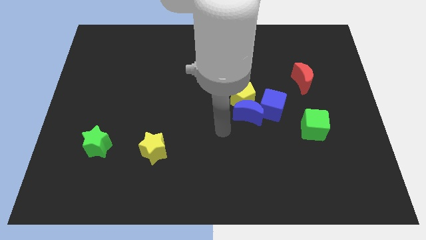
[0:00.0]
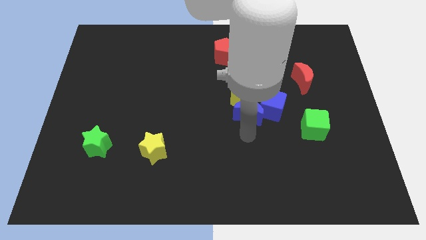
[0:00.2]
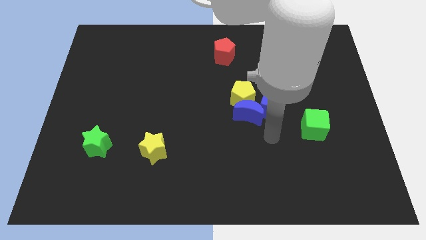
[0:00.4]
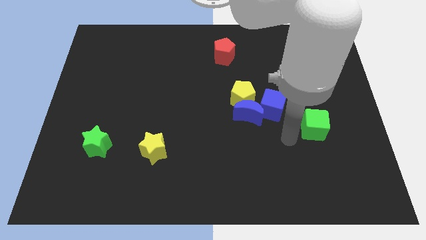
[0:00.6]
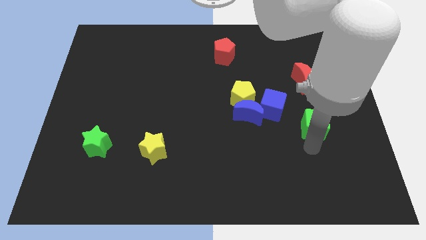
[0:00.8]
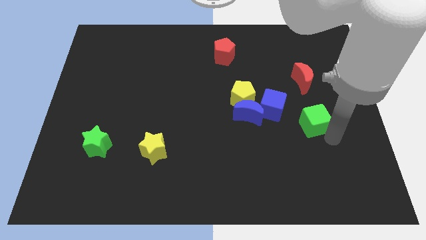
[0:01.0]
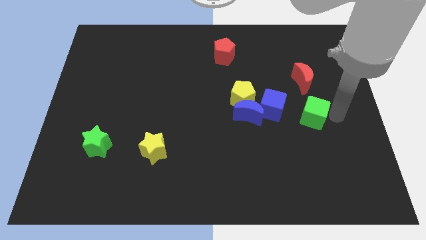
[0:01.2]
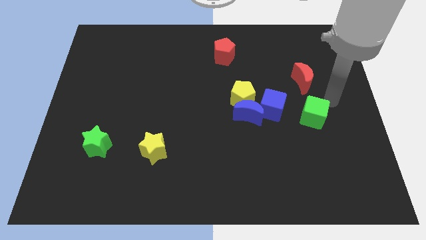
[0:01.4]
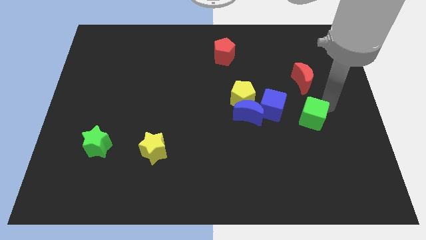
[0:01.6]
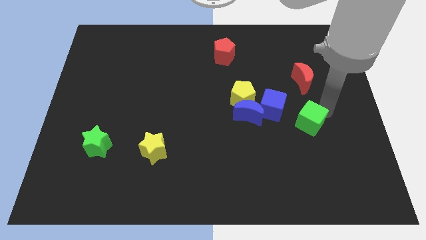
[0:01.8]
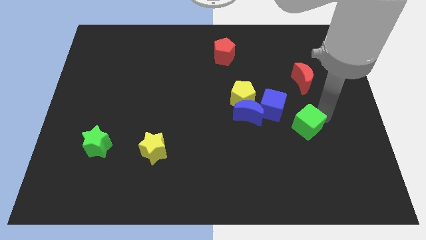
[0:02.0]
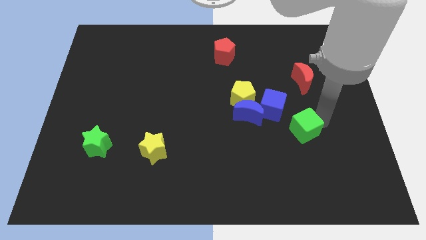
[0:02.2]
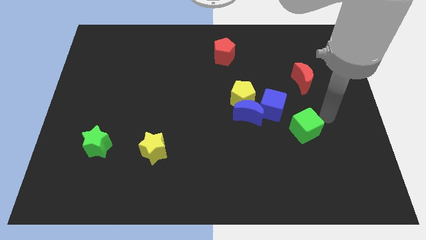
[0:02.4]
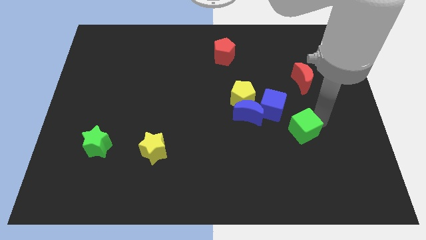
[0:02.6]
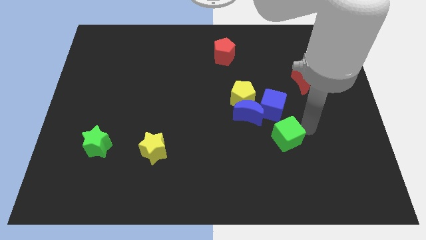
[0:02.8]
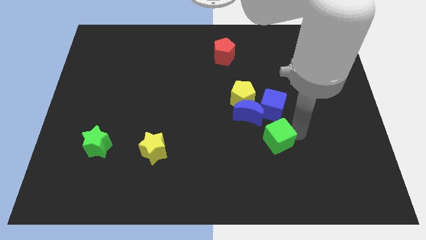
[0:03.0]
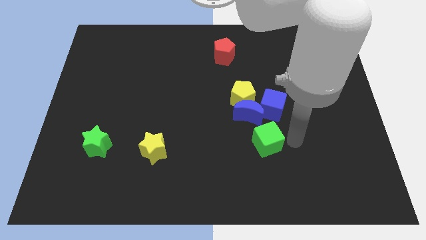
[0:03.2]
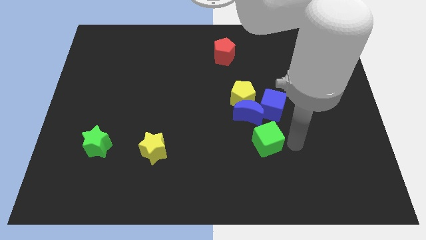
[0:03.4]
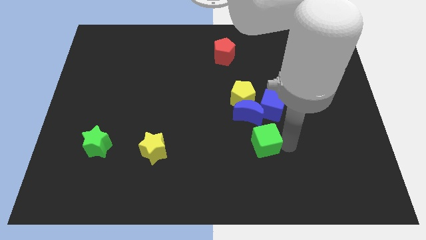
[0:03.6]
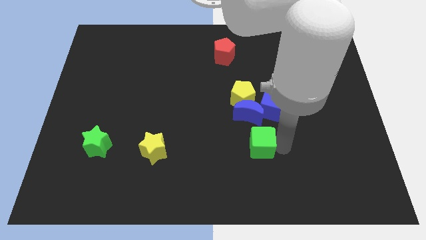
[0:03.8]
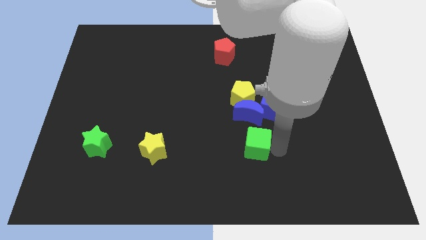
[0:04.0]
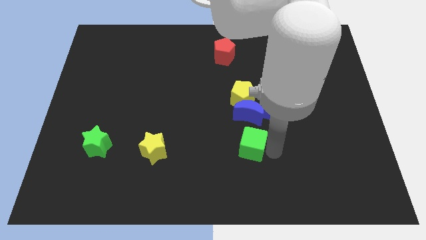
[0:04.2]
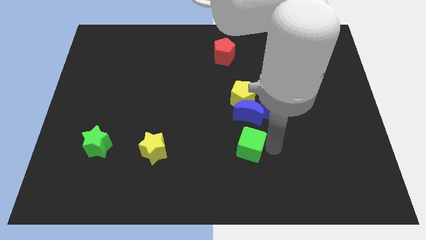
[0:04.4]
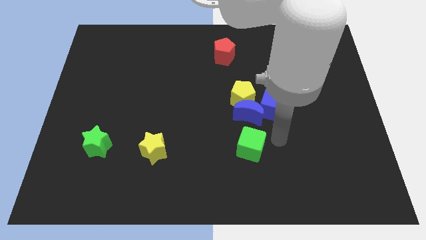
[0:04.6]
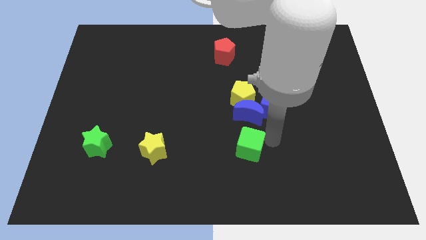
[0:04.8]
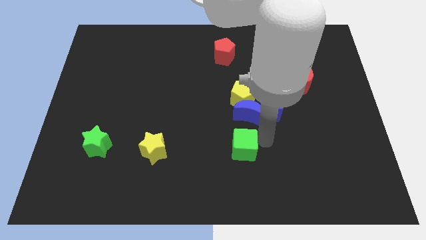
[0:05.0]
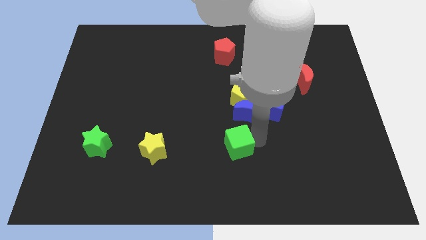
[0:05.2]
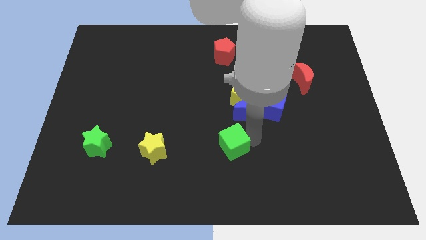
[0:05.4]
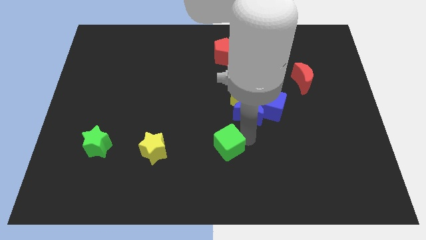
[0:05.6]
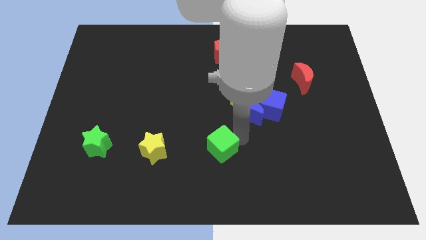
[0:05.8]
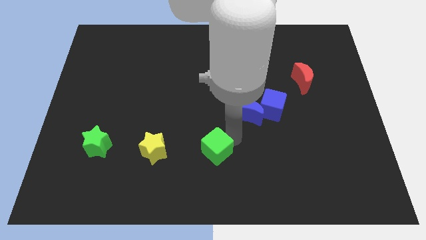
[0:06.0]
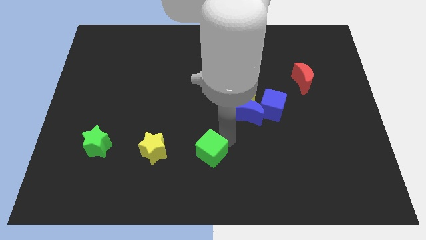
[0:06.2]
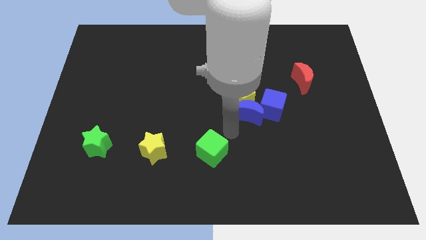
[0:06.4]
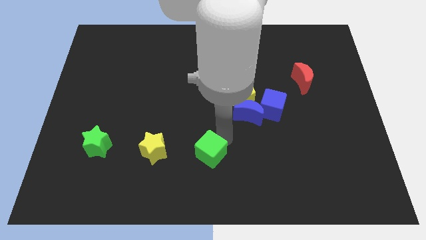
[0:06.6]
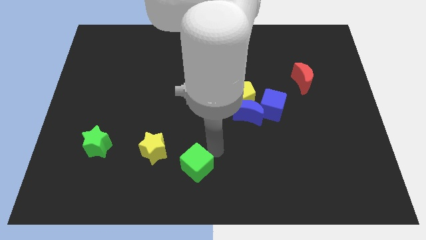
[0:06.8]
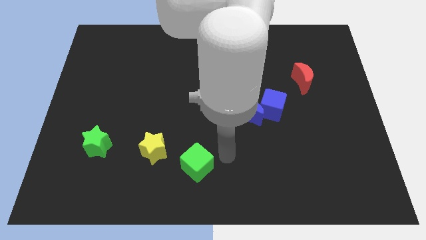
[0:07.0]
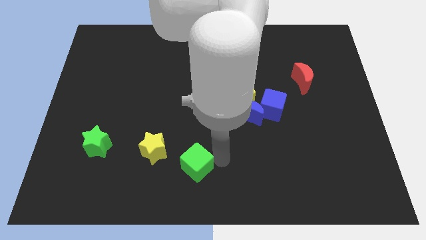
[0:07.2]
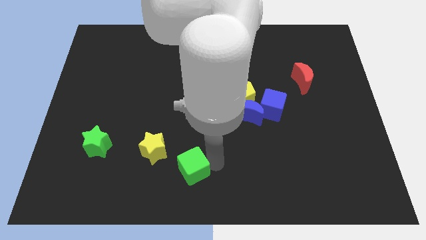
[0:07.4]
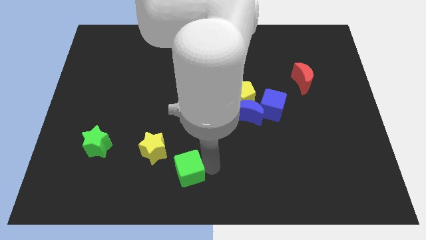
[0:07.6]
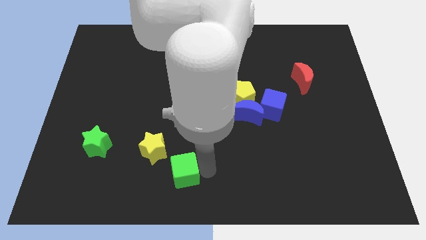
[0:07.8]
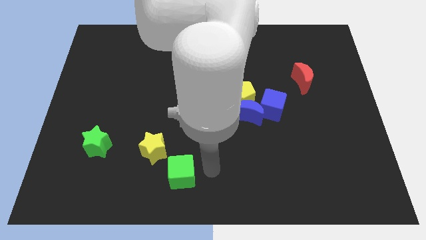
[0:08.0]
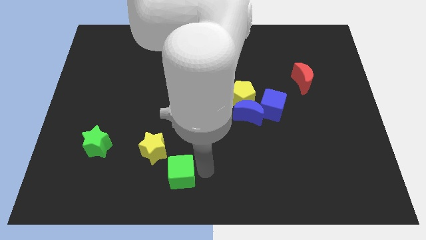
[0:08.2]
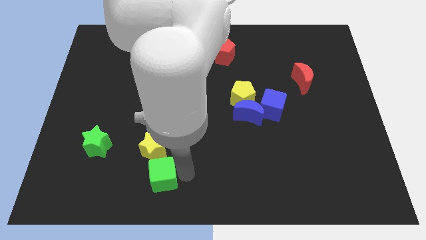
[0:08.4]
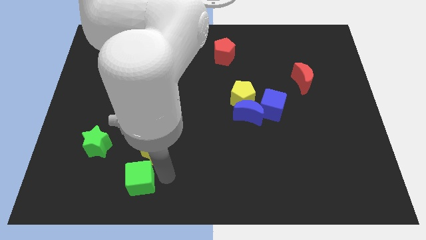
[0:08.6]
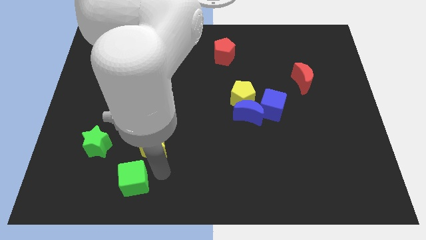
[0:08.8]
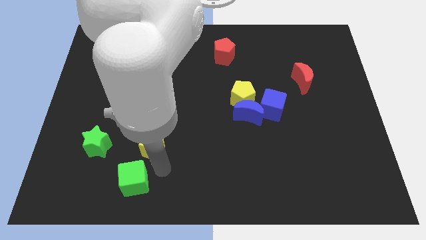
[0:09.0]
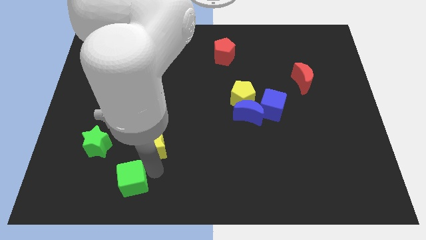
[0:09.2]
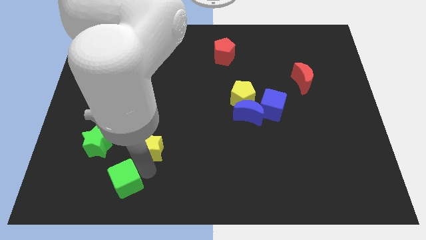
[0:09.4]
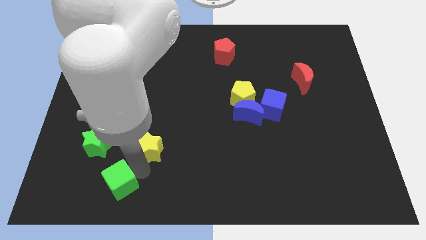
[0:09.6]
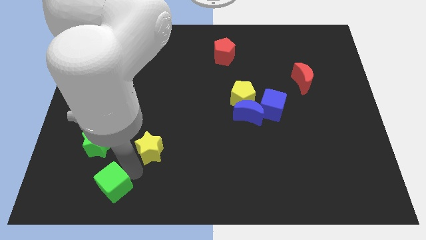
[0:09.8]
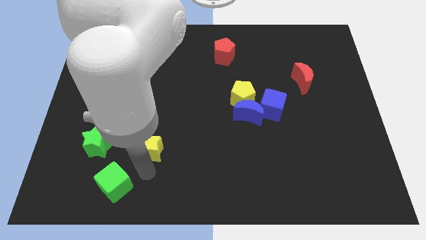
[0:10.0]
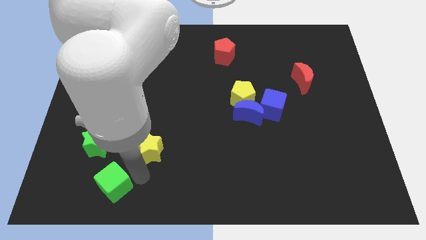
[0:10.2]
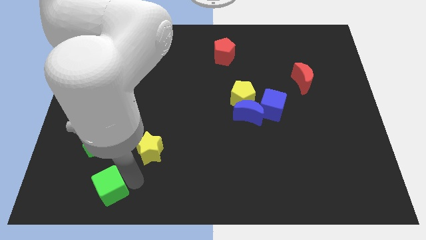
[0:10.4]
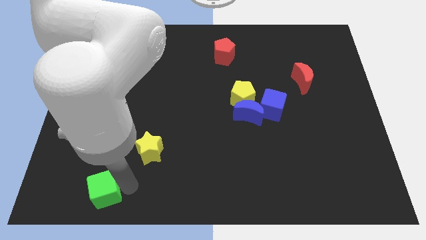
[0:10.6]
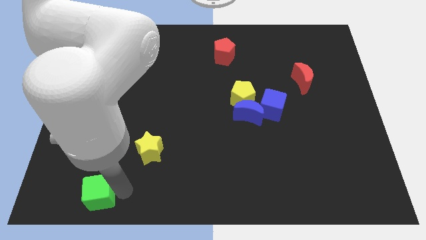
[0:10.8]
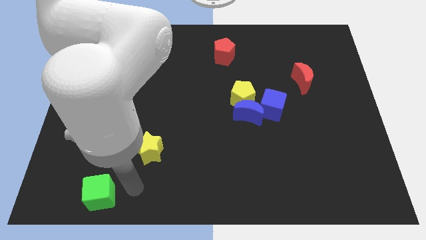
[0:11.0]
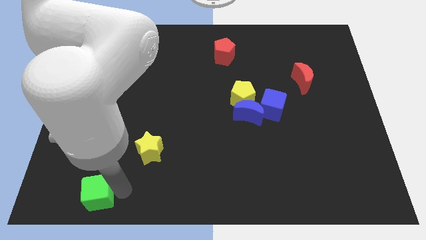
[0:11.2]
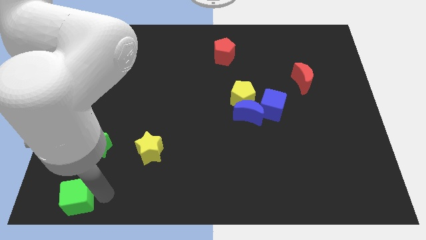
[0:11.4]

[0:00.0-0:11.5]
push the green cube to the bottom left of the board
